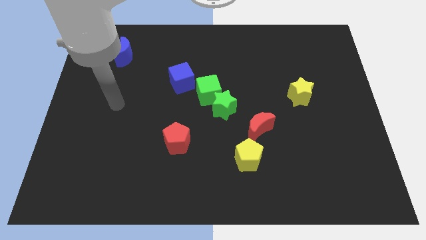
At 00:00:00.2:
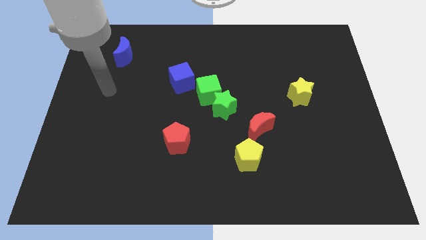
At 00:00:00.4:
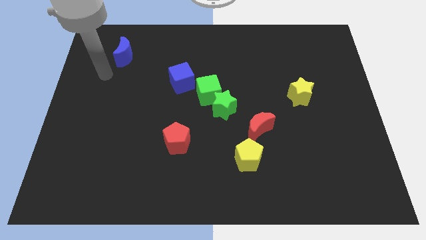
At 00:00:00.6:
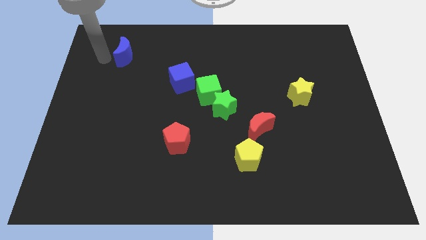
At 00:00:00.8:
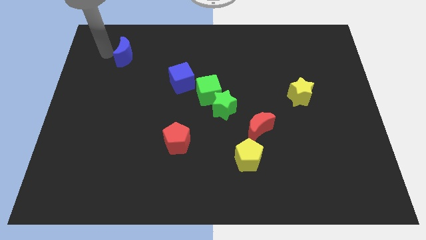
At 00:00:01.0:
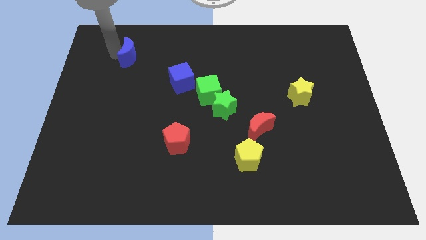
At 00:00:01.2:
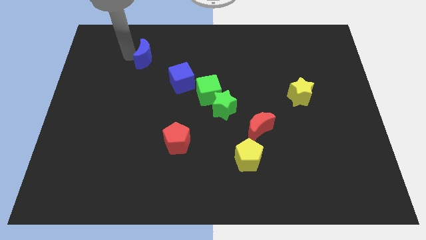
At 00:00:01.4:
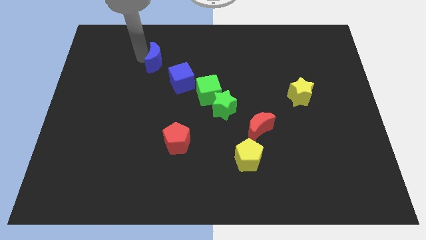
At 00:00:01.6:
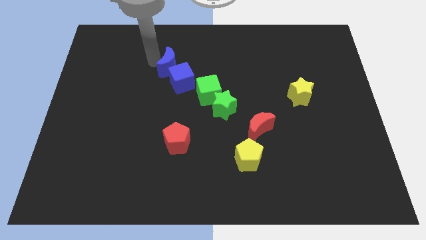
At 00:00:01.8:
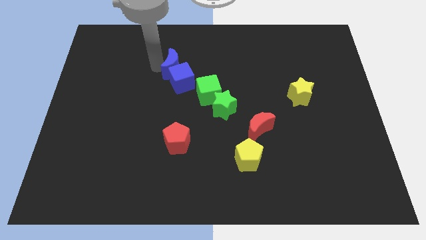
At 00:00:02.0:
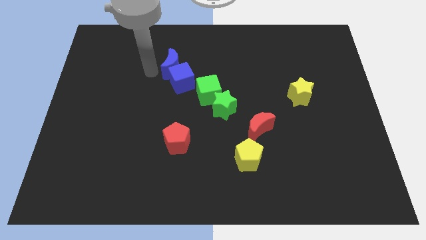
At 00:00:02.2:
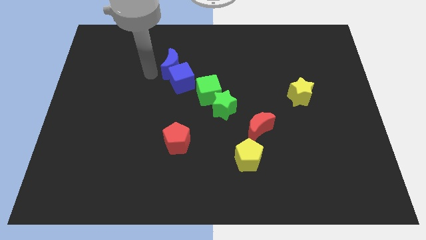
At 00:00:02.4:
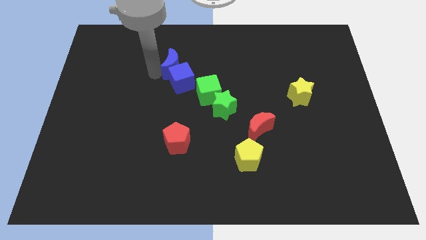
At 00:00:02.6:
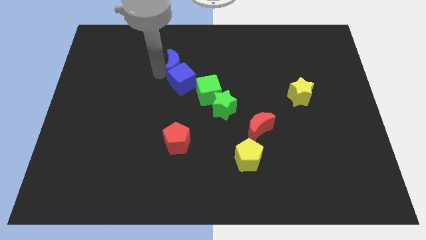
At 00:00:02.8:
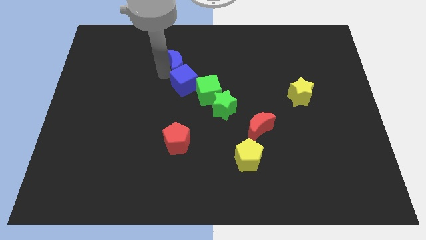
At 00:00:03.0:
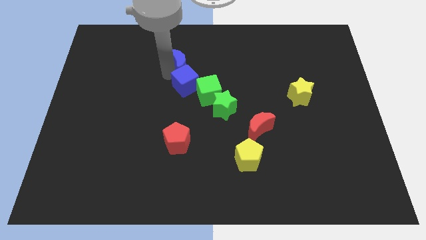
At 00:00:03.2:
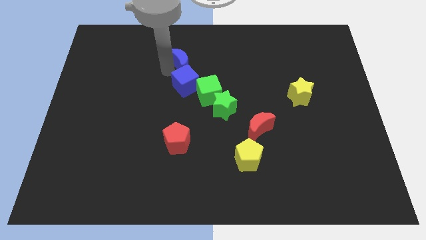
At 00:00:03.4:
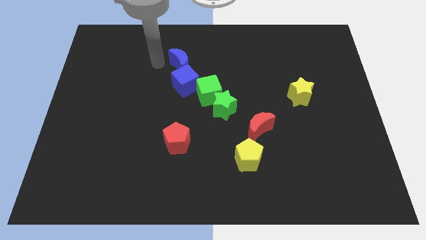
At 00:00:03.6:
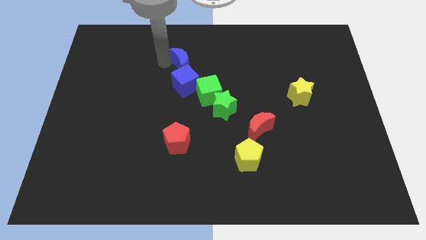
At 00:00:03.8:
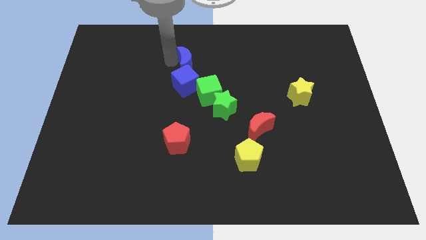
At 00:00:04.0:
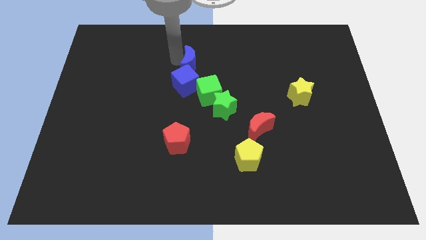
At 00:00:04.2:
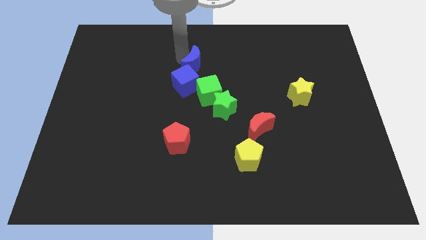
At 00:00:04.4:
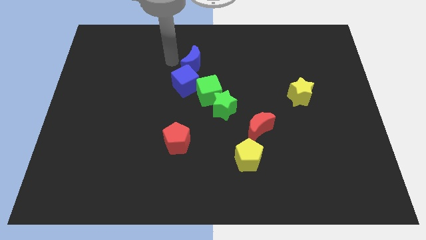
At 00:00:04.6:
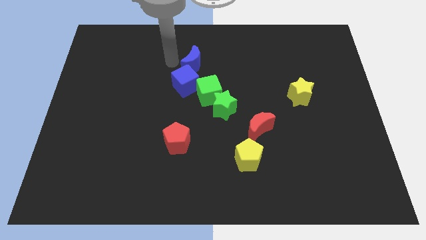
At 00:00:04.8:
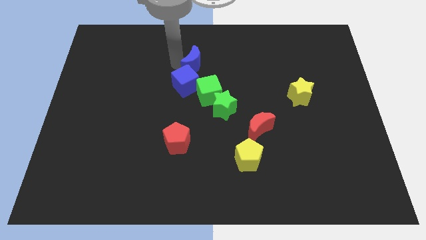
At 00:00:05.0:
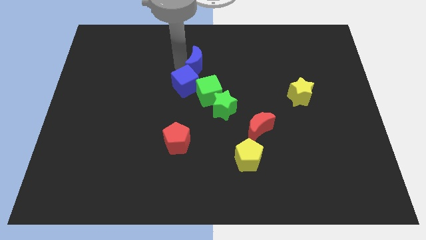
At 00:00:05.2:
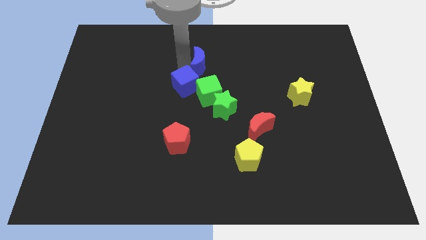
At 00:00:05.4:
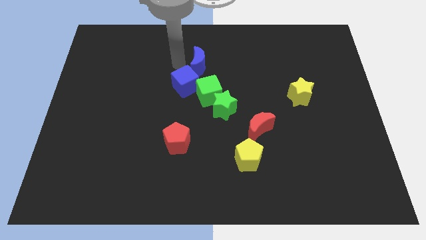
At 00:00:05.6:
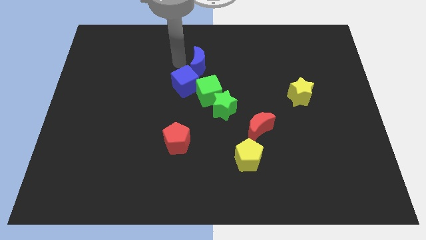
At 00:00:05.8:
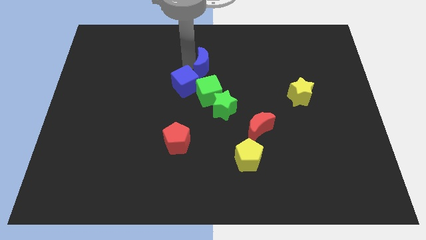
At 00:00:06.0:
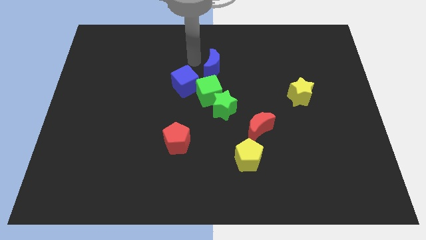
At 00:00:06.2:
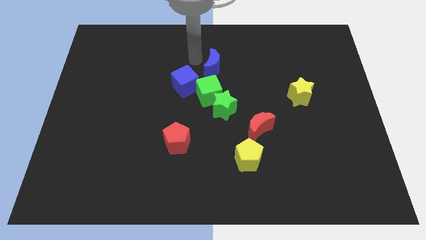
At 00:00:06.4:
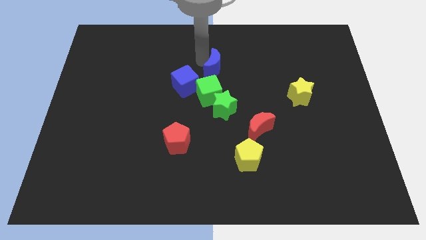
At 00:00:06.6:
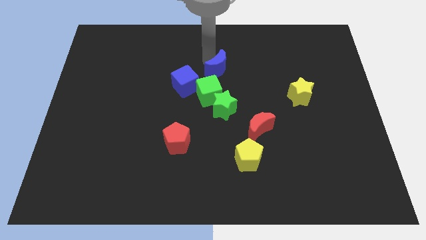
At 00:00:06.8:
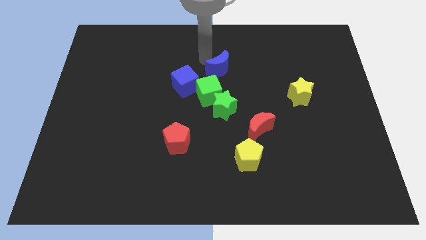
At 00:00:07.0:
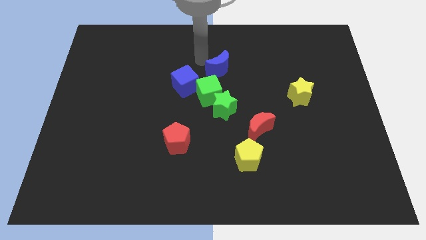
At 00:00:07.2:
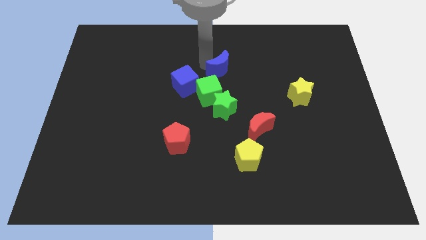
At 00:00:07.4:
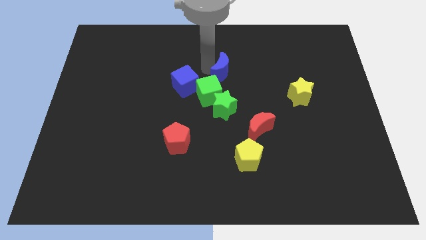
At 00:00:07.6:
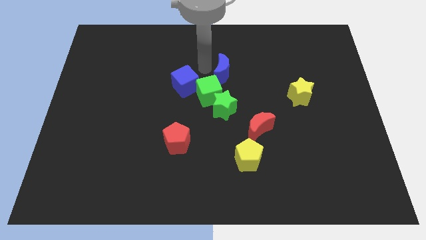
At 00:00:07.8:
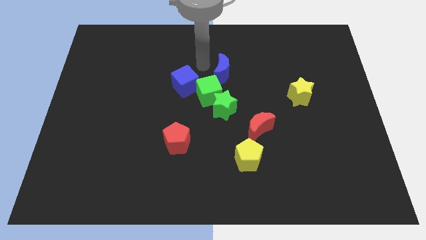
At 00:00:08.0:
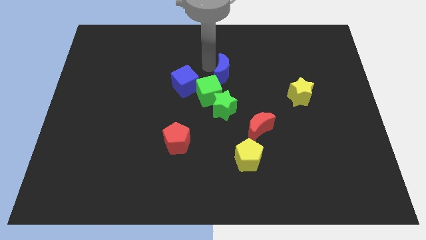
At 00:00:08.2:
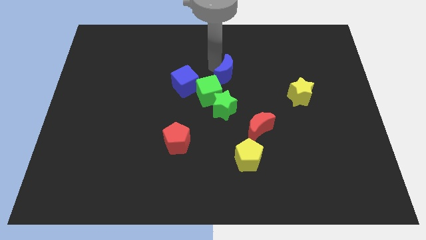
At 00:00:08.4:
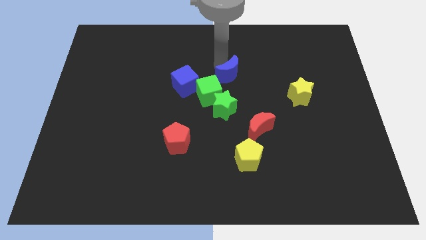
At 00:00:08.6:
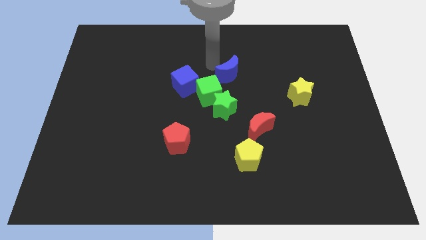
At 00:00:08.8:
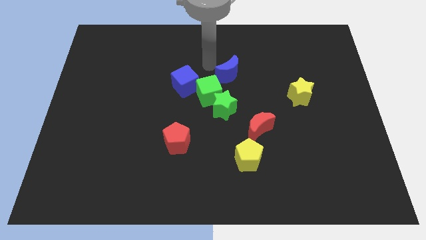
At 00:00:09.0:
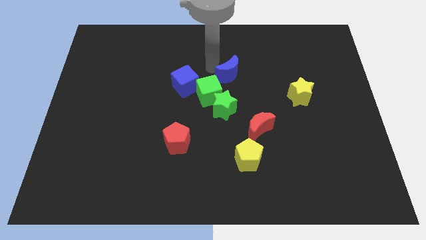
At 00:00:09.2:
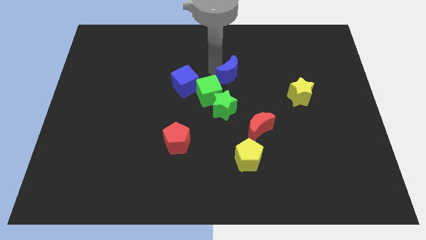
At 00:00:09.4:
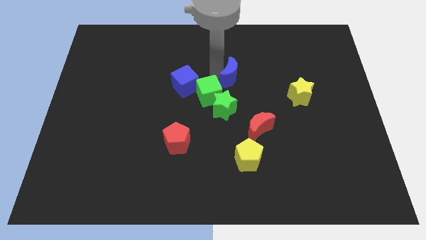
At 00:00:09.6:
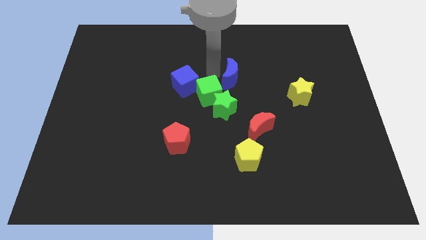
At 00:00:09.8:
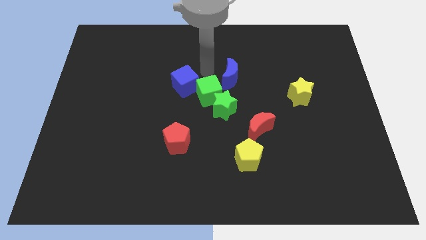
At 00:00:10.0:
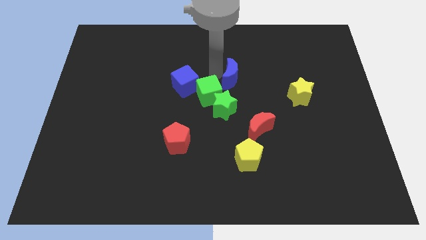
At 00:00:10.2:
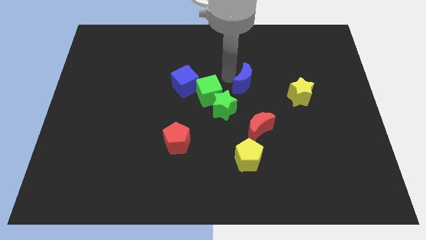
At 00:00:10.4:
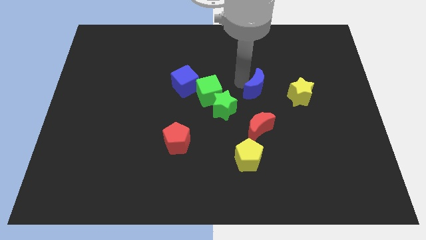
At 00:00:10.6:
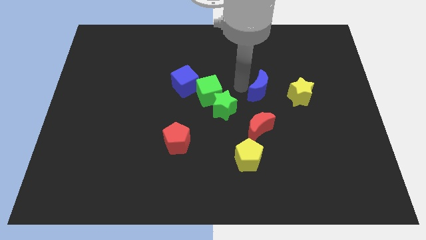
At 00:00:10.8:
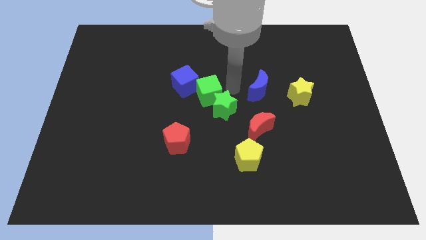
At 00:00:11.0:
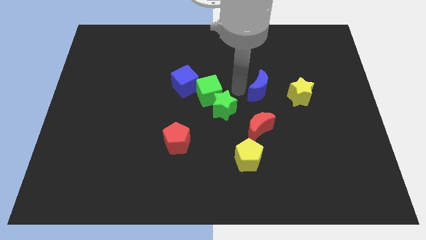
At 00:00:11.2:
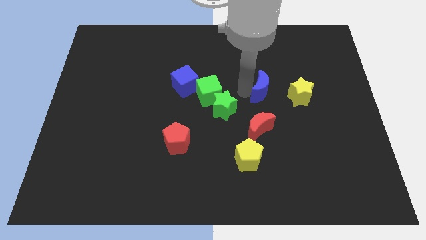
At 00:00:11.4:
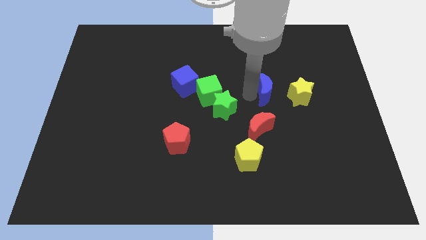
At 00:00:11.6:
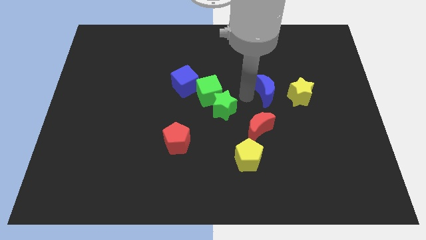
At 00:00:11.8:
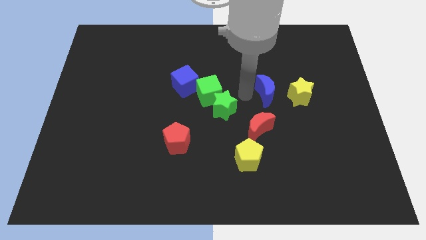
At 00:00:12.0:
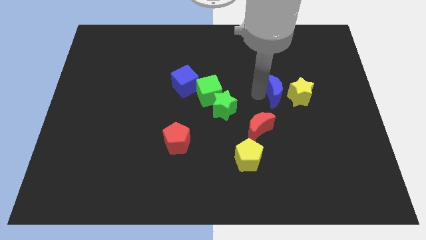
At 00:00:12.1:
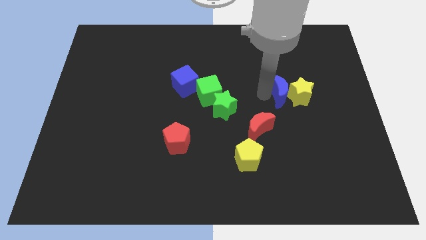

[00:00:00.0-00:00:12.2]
slide the blue moon to the yellow star

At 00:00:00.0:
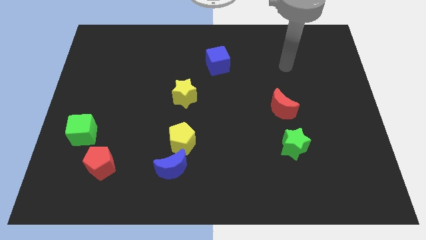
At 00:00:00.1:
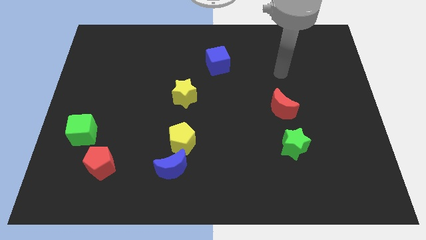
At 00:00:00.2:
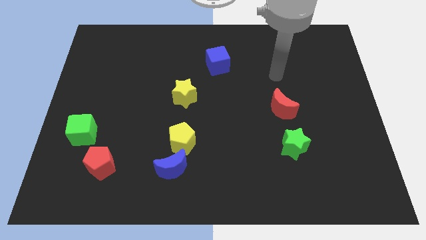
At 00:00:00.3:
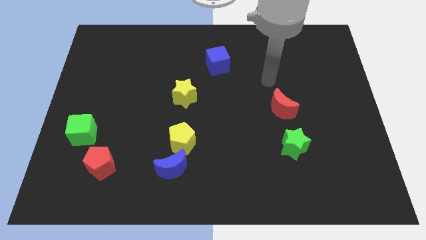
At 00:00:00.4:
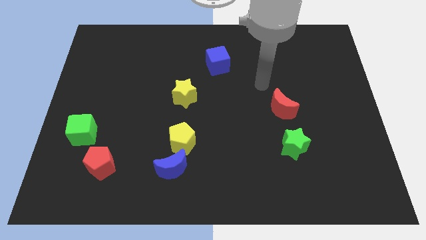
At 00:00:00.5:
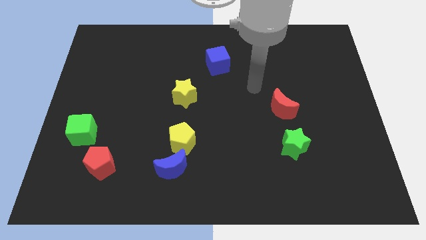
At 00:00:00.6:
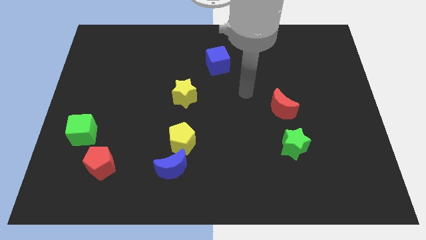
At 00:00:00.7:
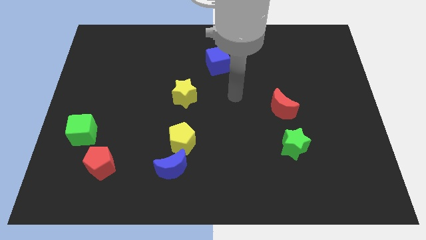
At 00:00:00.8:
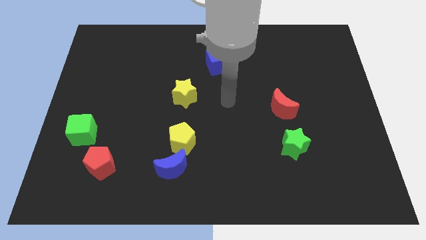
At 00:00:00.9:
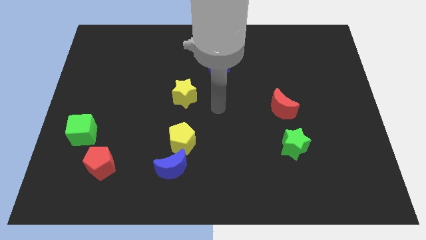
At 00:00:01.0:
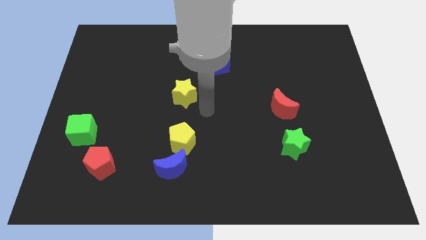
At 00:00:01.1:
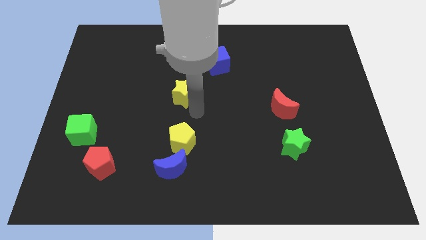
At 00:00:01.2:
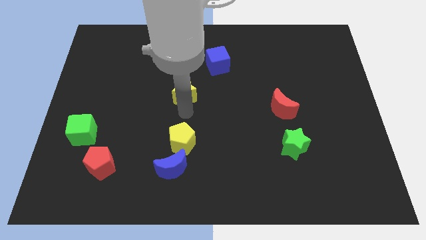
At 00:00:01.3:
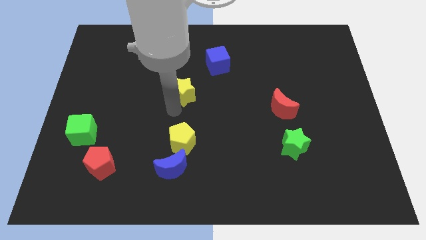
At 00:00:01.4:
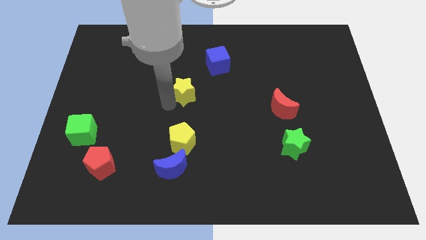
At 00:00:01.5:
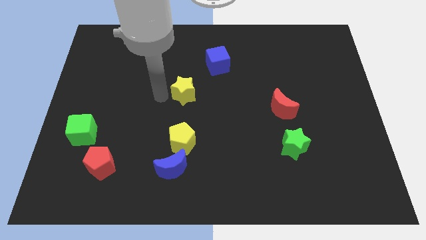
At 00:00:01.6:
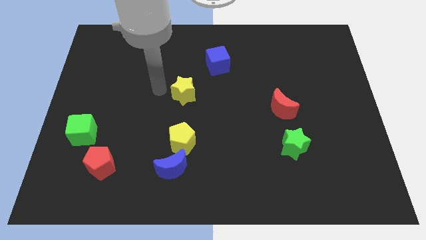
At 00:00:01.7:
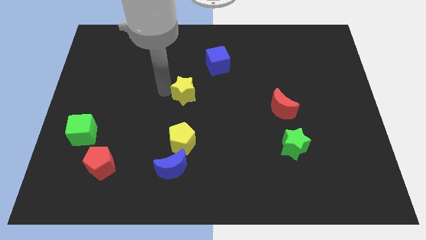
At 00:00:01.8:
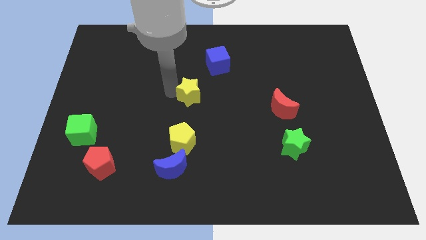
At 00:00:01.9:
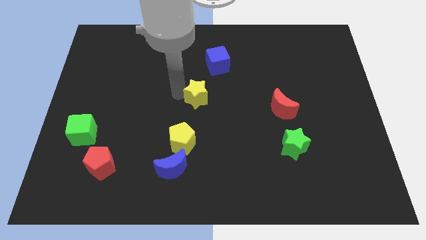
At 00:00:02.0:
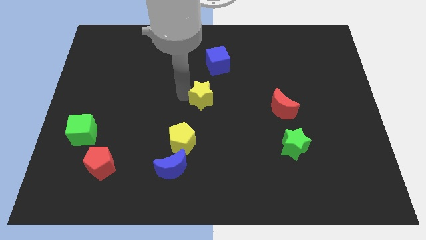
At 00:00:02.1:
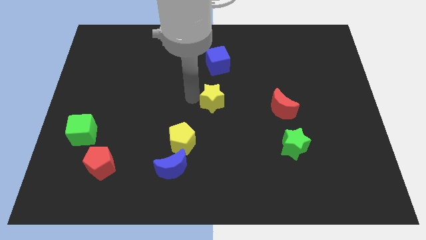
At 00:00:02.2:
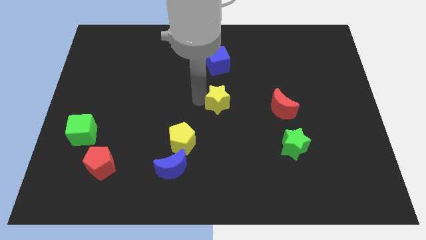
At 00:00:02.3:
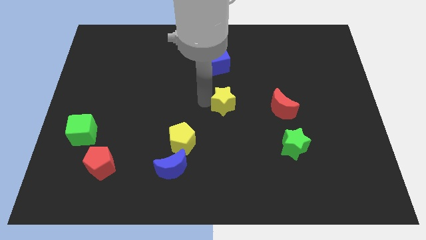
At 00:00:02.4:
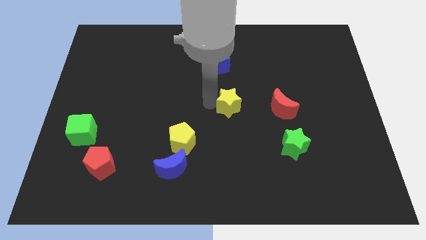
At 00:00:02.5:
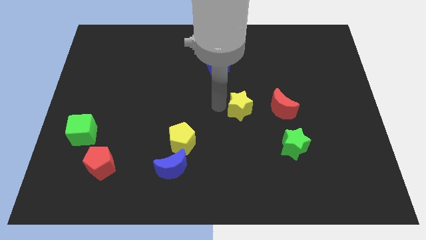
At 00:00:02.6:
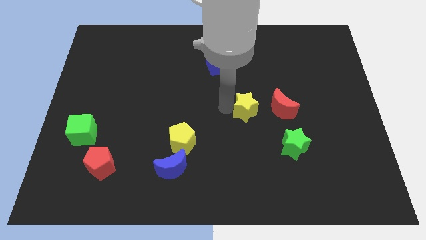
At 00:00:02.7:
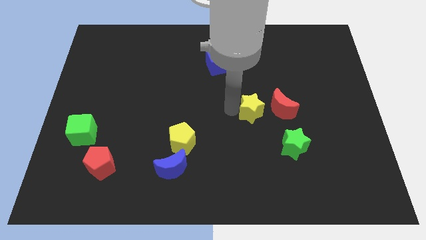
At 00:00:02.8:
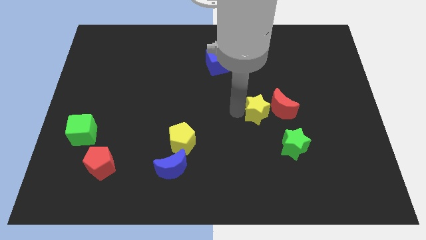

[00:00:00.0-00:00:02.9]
move the yellow star close to the red moon
